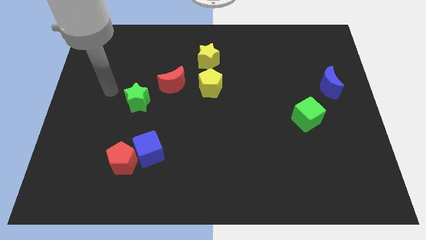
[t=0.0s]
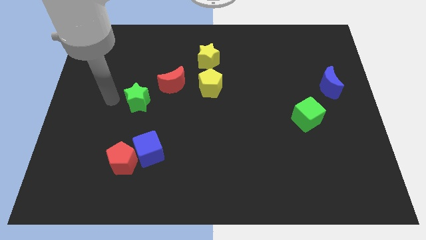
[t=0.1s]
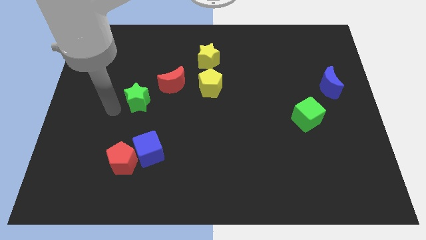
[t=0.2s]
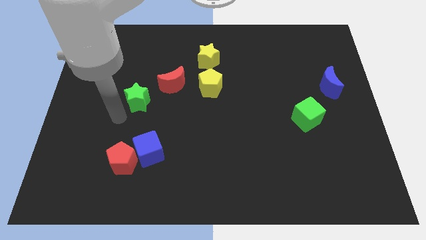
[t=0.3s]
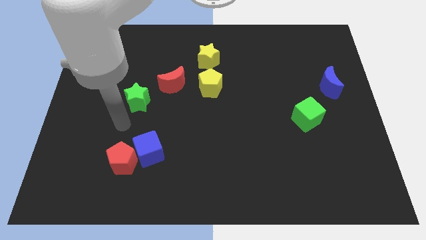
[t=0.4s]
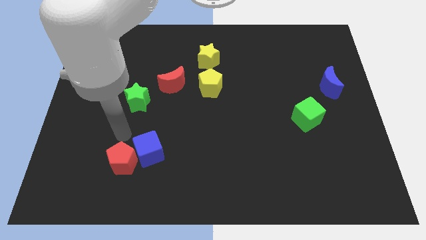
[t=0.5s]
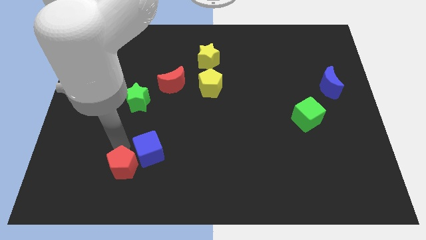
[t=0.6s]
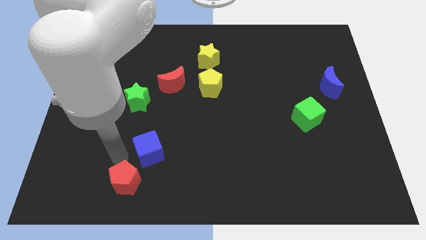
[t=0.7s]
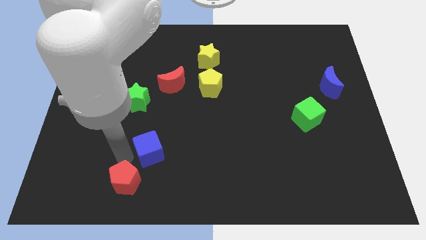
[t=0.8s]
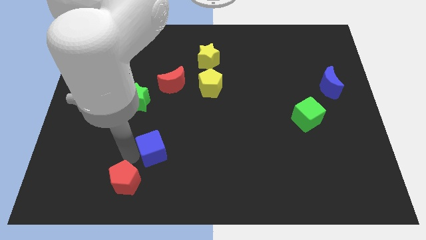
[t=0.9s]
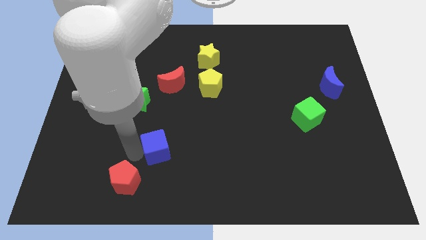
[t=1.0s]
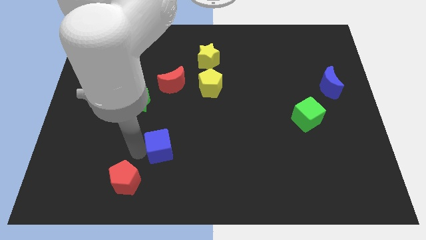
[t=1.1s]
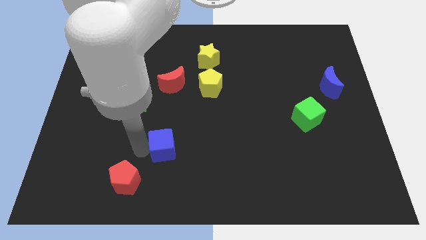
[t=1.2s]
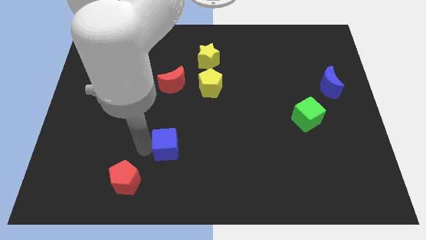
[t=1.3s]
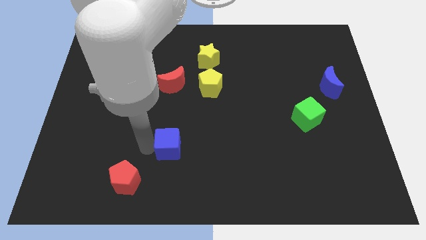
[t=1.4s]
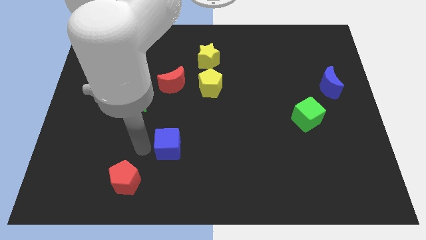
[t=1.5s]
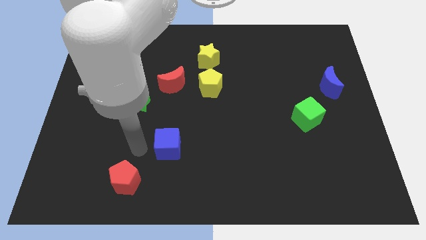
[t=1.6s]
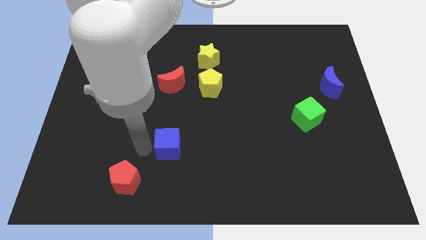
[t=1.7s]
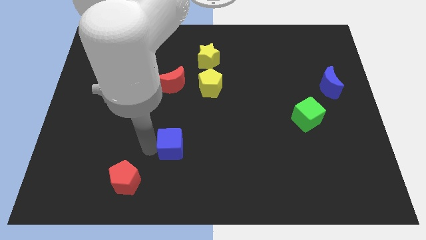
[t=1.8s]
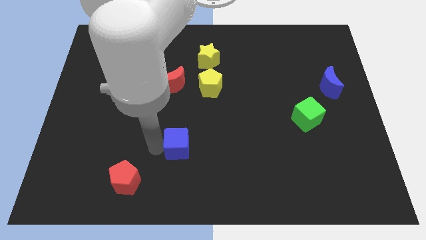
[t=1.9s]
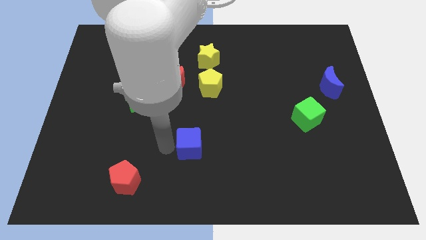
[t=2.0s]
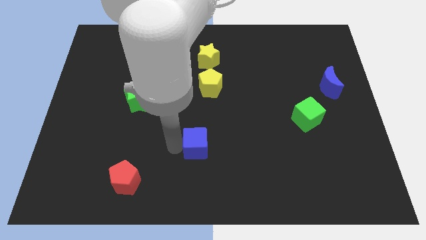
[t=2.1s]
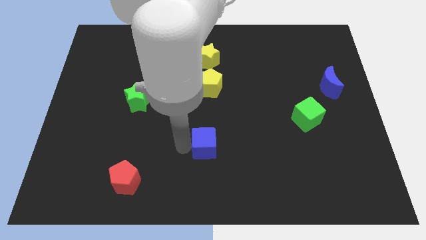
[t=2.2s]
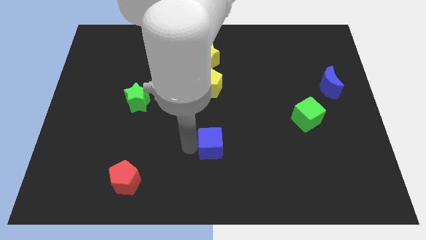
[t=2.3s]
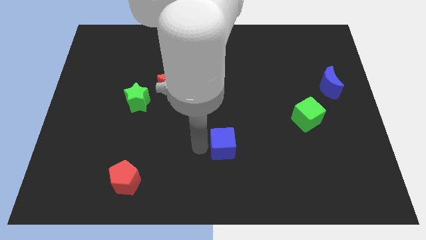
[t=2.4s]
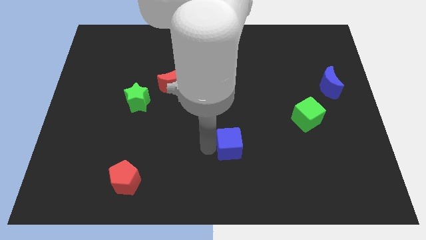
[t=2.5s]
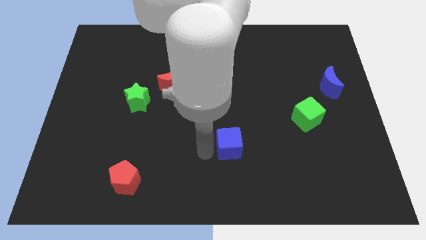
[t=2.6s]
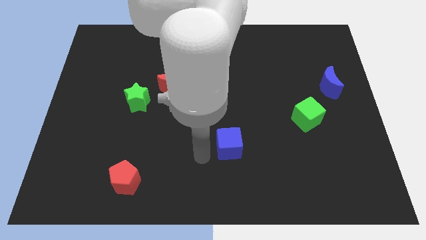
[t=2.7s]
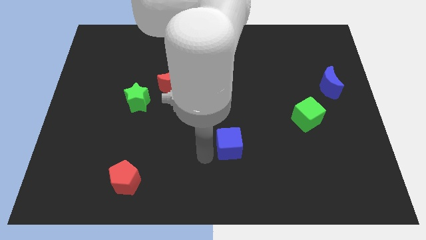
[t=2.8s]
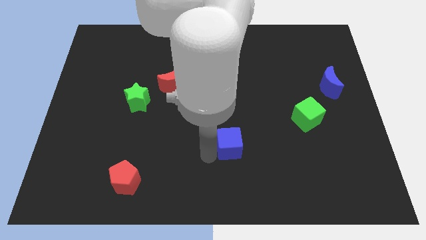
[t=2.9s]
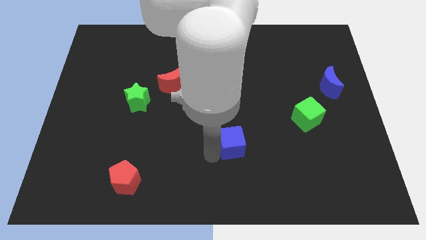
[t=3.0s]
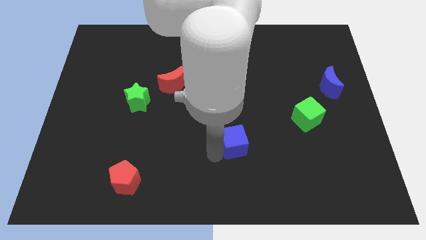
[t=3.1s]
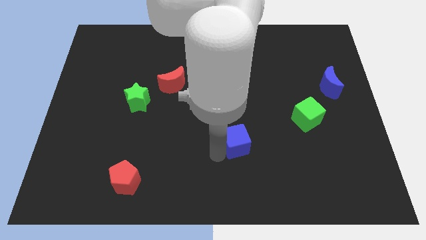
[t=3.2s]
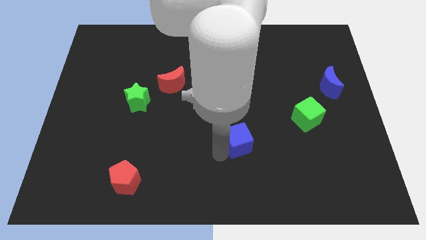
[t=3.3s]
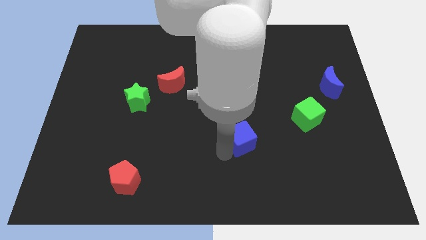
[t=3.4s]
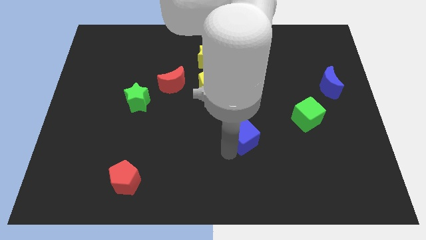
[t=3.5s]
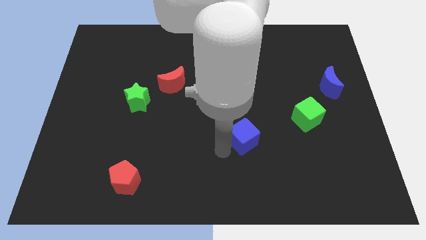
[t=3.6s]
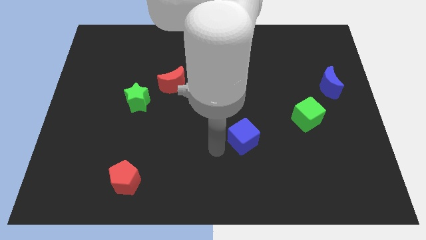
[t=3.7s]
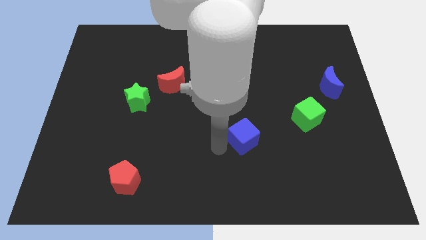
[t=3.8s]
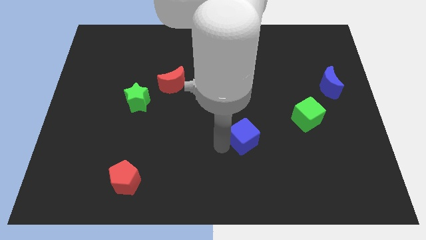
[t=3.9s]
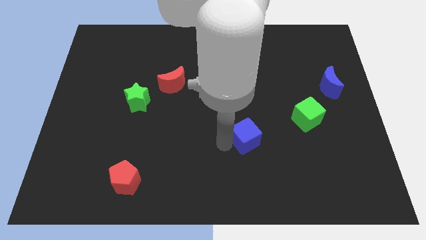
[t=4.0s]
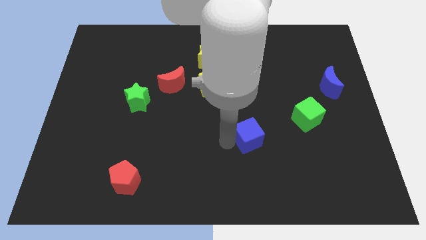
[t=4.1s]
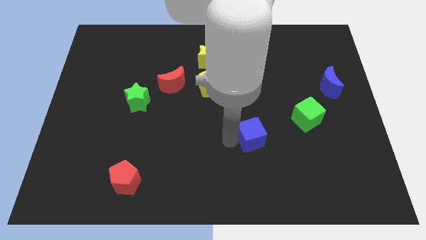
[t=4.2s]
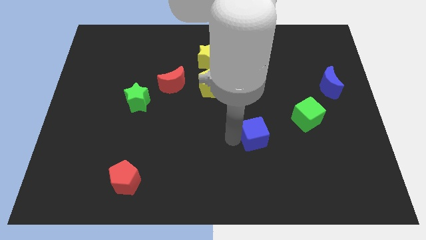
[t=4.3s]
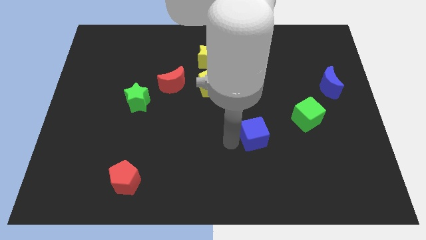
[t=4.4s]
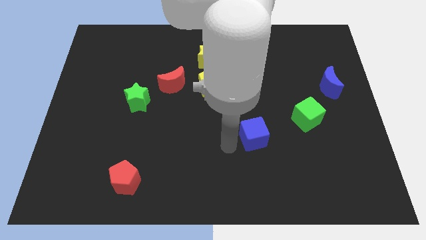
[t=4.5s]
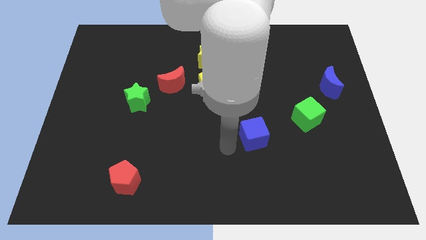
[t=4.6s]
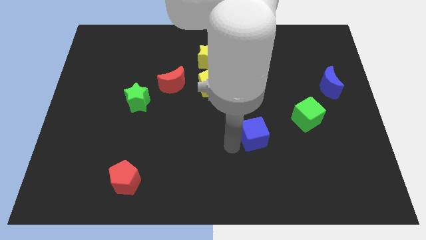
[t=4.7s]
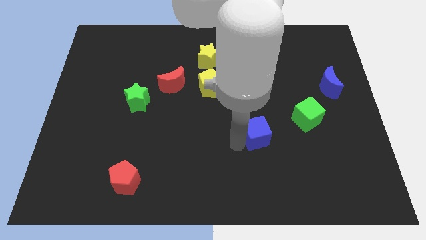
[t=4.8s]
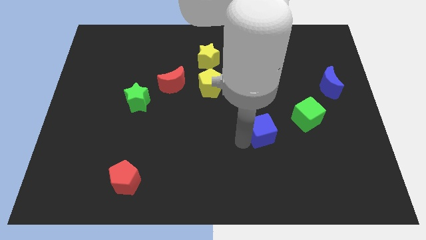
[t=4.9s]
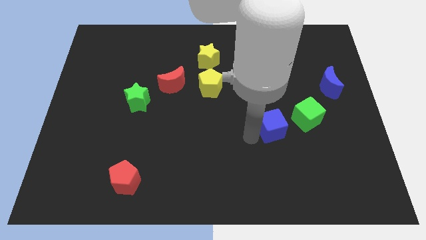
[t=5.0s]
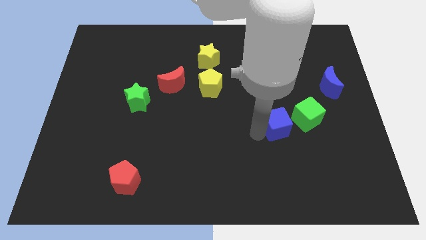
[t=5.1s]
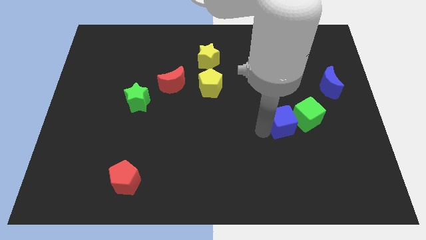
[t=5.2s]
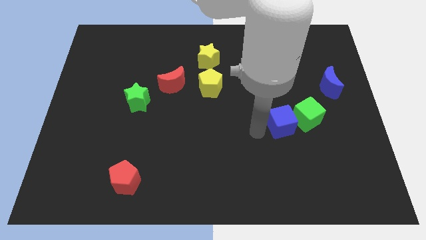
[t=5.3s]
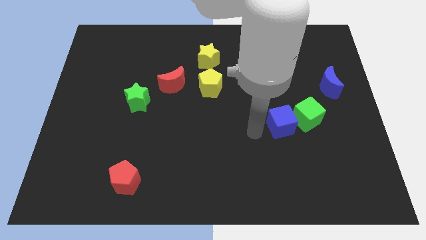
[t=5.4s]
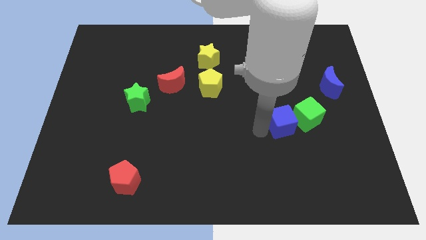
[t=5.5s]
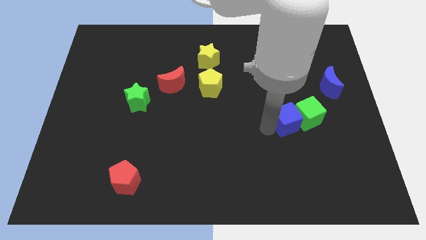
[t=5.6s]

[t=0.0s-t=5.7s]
push the blue cube next to the green cube

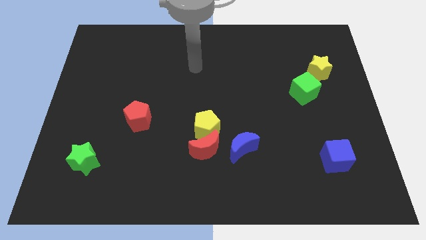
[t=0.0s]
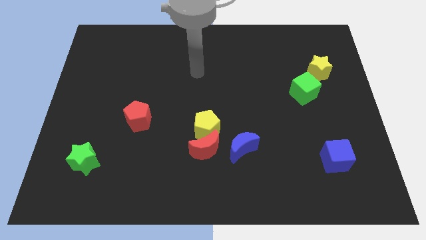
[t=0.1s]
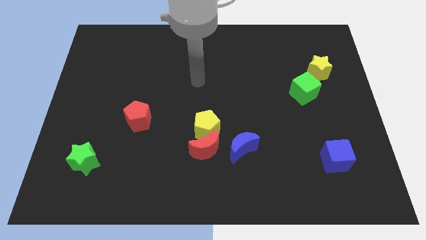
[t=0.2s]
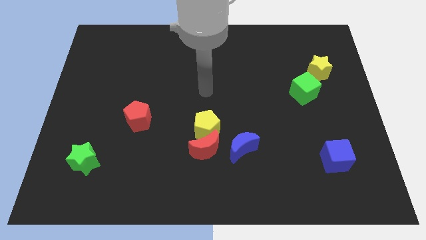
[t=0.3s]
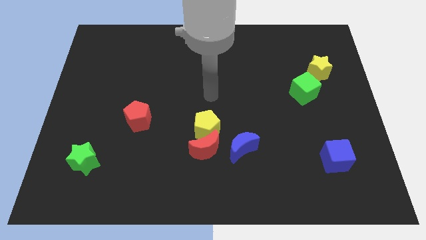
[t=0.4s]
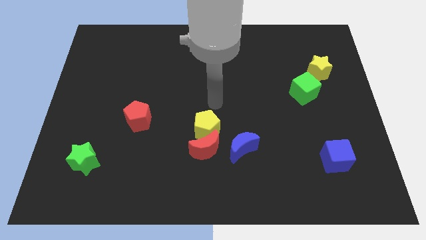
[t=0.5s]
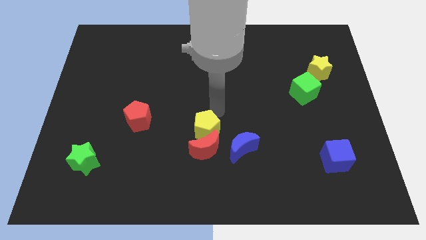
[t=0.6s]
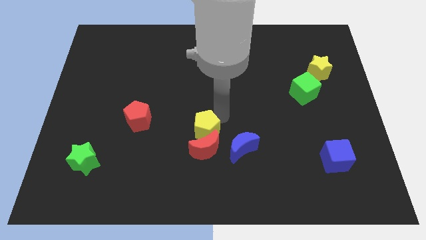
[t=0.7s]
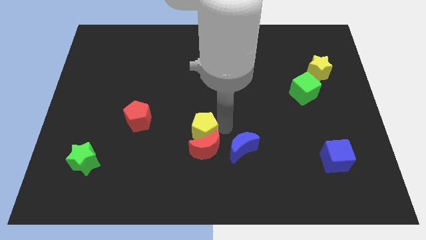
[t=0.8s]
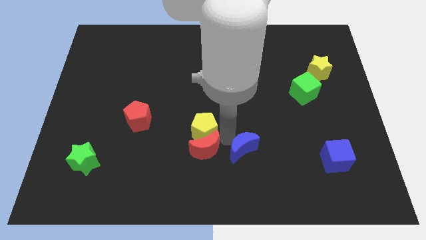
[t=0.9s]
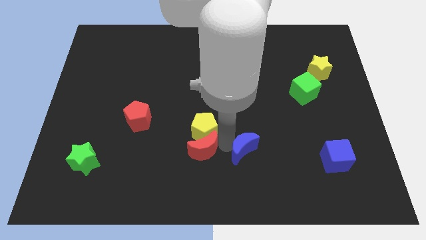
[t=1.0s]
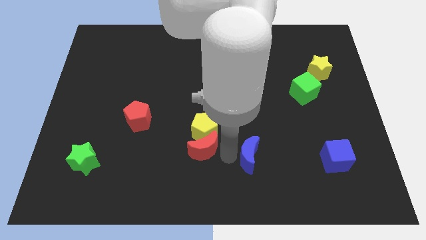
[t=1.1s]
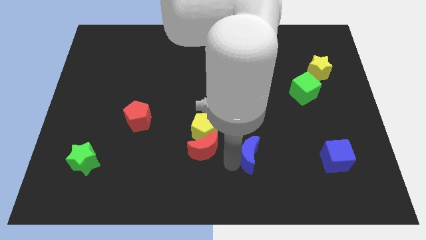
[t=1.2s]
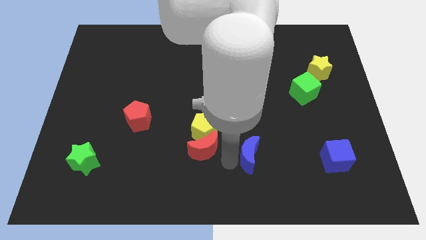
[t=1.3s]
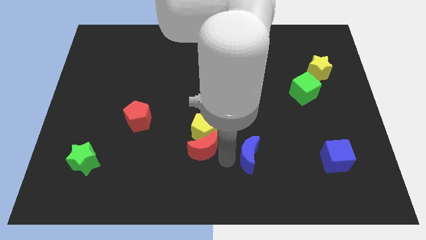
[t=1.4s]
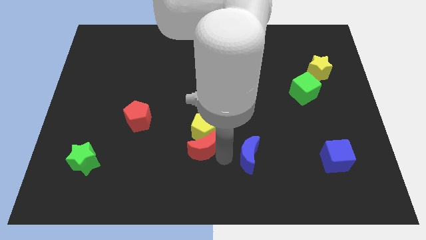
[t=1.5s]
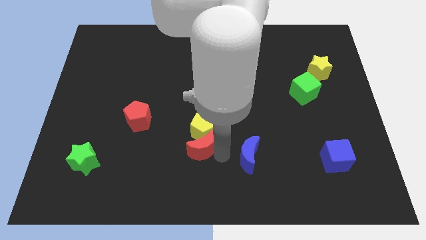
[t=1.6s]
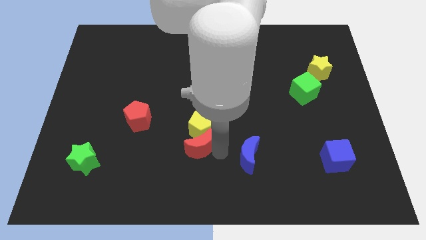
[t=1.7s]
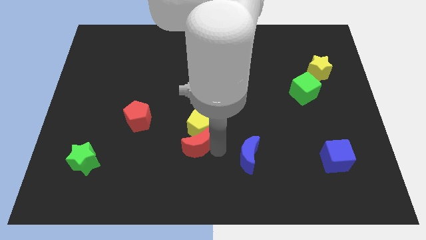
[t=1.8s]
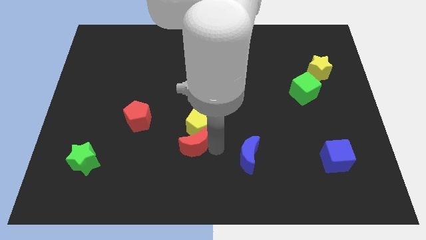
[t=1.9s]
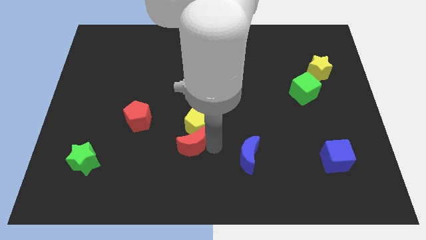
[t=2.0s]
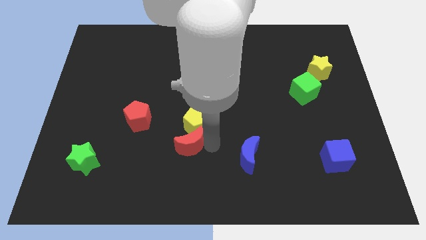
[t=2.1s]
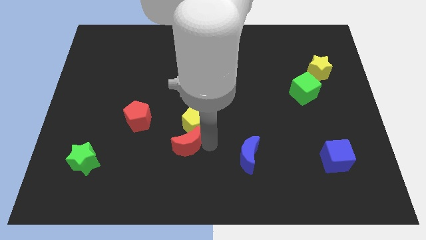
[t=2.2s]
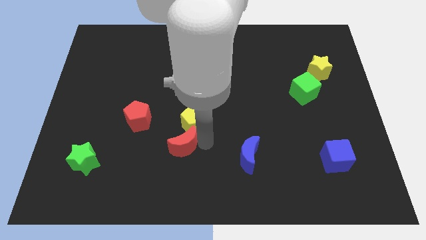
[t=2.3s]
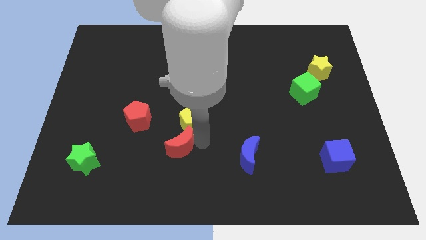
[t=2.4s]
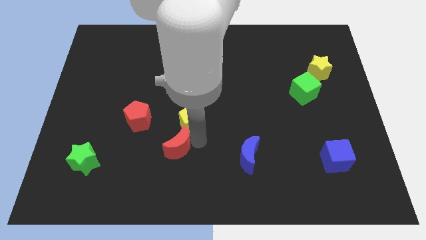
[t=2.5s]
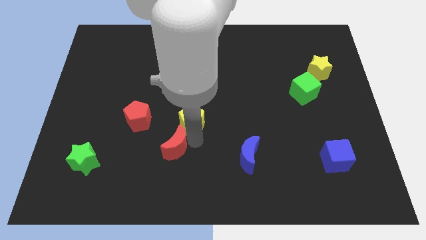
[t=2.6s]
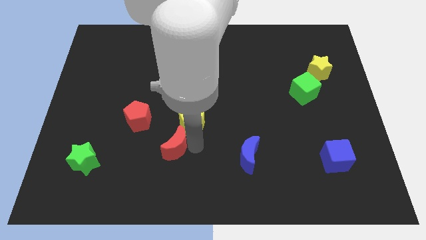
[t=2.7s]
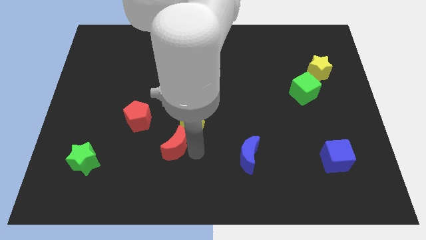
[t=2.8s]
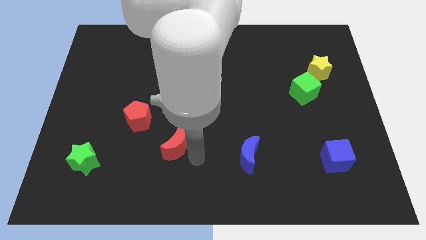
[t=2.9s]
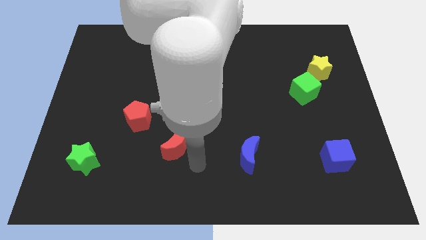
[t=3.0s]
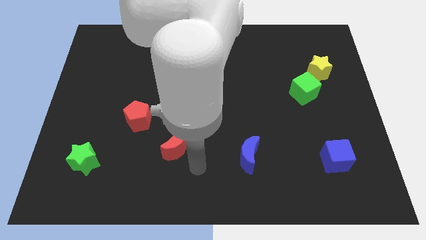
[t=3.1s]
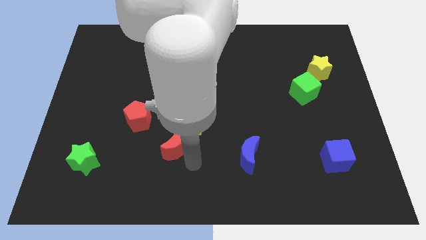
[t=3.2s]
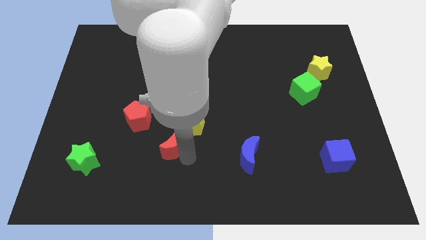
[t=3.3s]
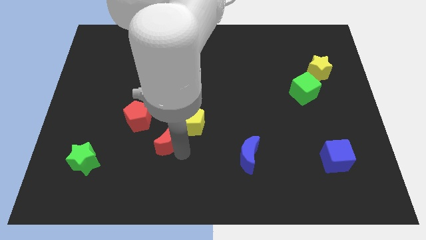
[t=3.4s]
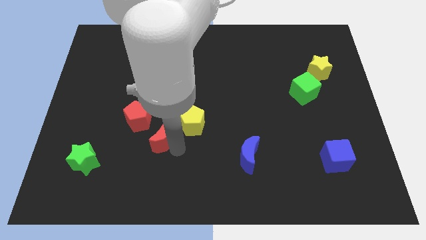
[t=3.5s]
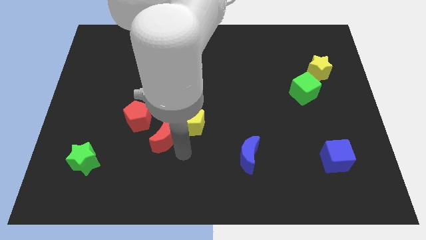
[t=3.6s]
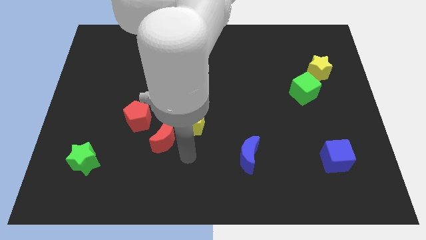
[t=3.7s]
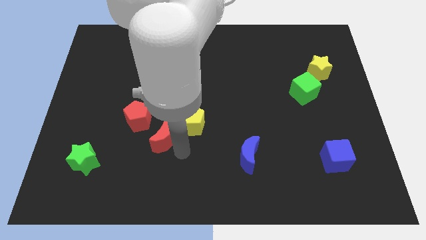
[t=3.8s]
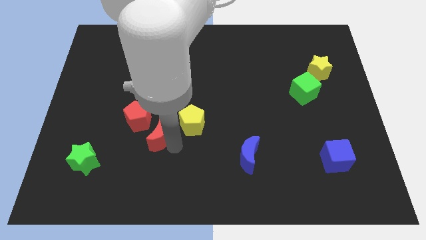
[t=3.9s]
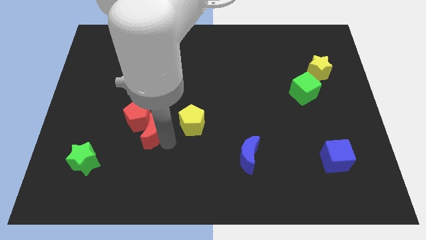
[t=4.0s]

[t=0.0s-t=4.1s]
push the red moon next to the red pentagon
